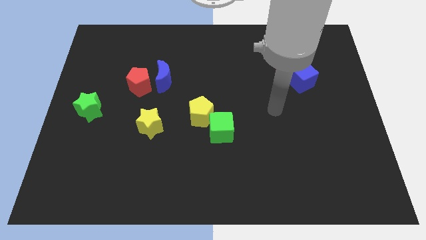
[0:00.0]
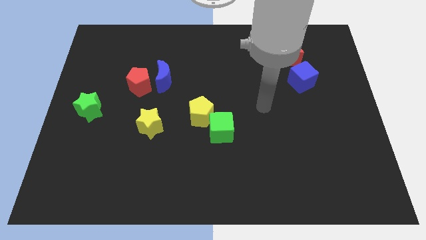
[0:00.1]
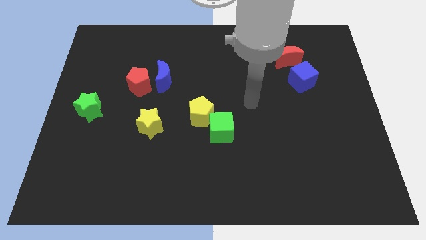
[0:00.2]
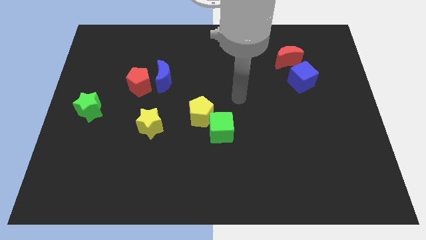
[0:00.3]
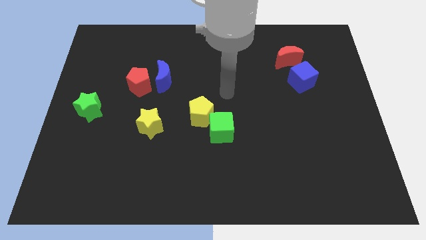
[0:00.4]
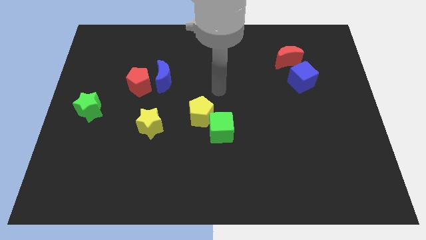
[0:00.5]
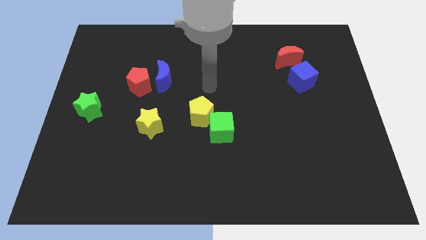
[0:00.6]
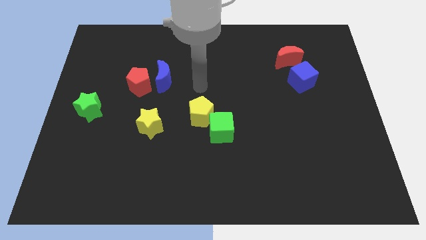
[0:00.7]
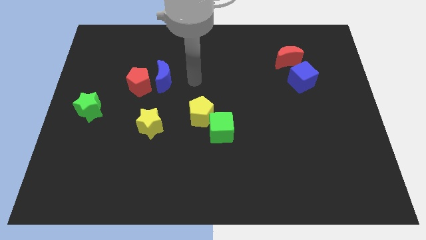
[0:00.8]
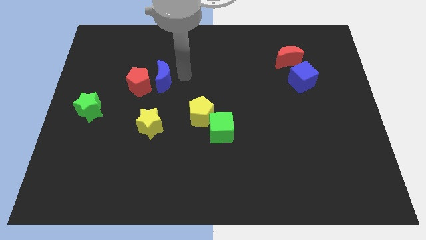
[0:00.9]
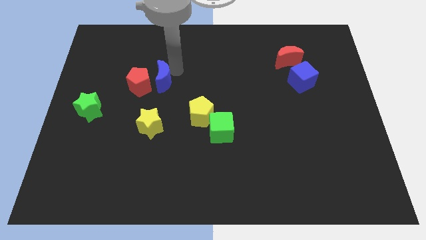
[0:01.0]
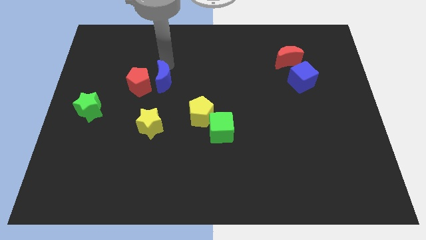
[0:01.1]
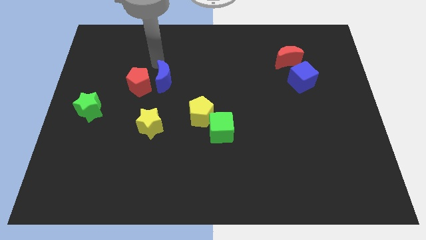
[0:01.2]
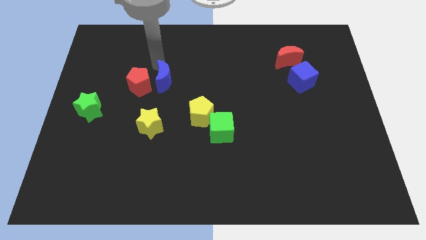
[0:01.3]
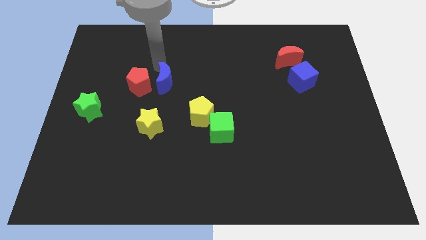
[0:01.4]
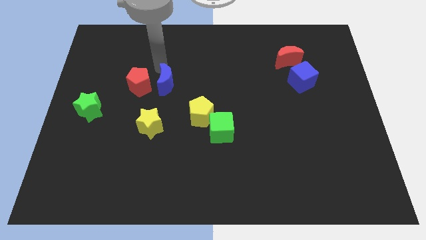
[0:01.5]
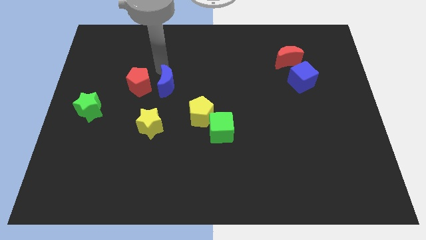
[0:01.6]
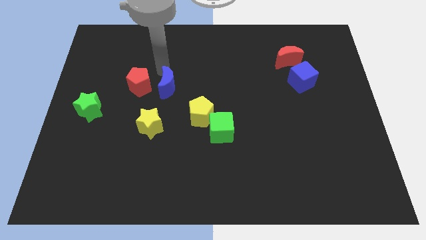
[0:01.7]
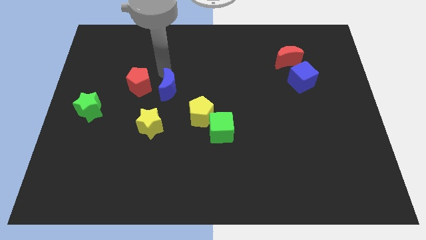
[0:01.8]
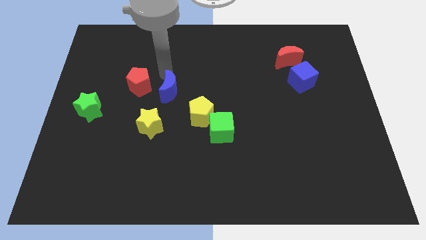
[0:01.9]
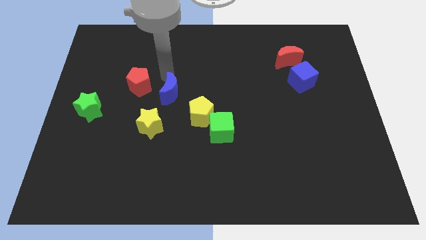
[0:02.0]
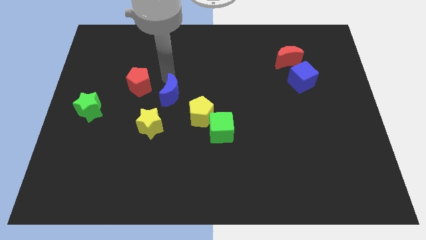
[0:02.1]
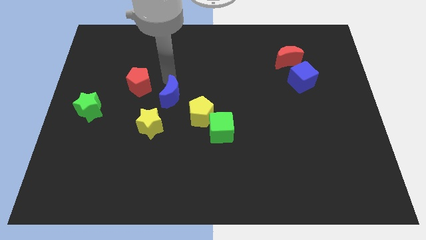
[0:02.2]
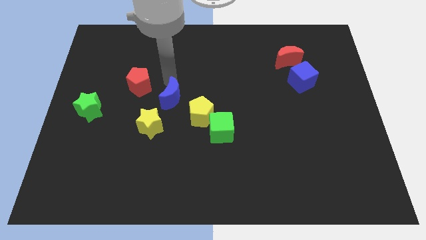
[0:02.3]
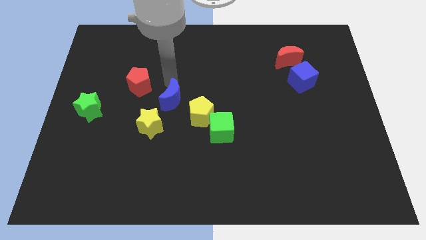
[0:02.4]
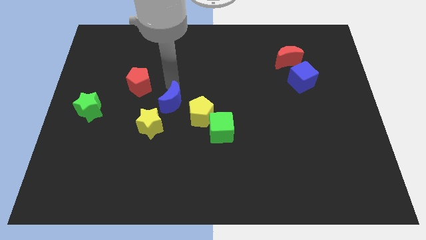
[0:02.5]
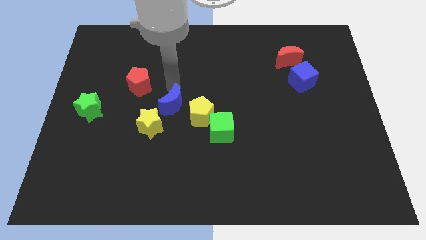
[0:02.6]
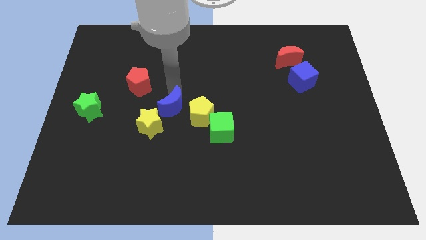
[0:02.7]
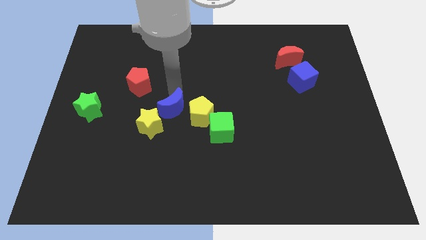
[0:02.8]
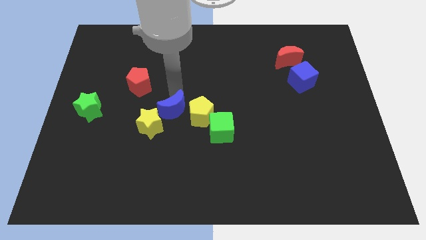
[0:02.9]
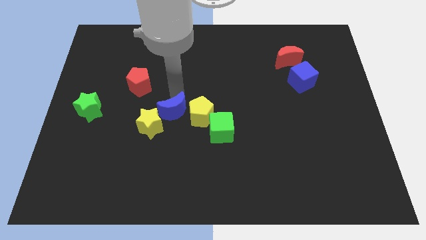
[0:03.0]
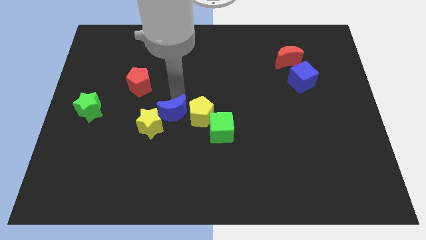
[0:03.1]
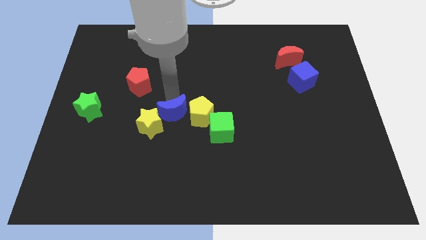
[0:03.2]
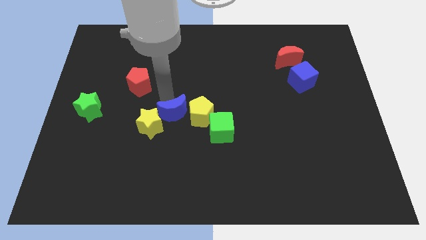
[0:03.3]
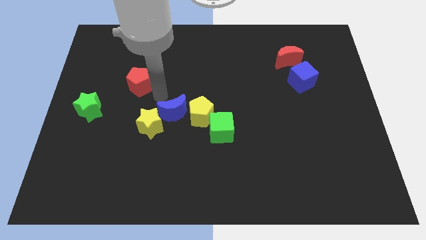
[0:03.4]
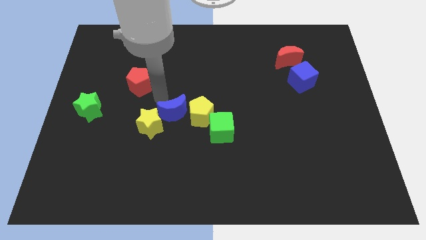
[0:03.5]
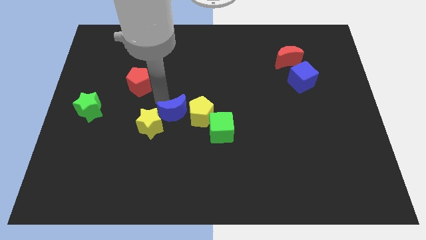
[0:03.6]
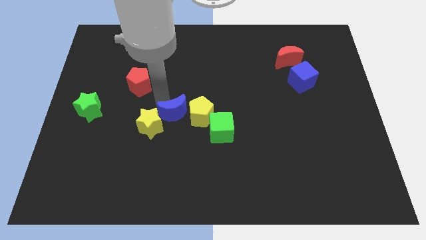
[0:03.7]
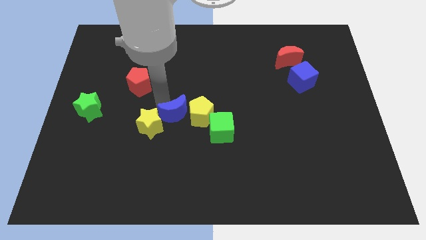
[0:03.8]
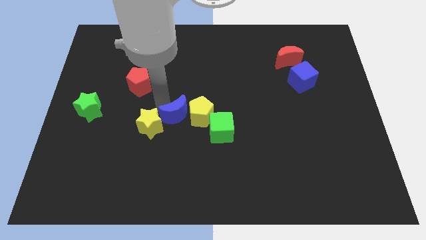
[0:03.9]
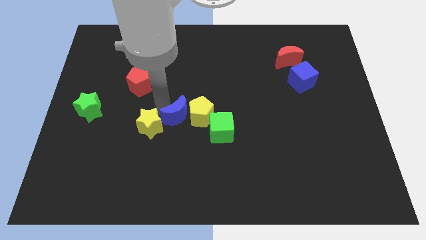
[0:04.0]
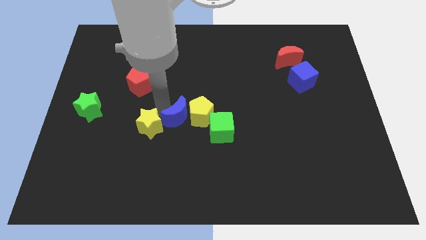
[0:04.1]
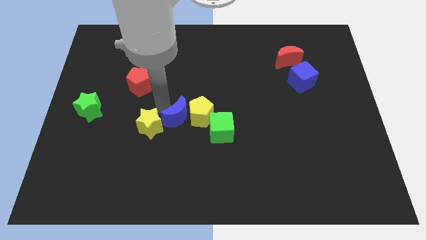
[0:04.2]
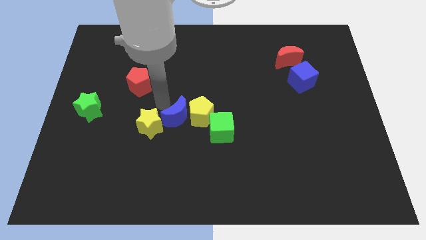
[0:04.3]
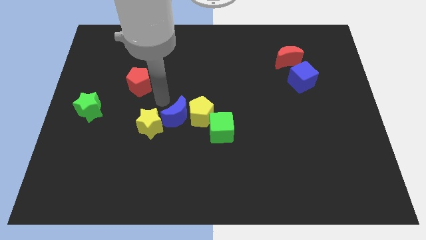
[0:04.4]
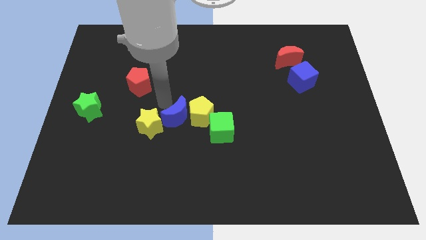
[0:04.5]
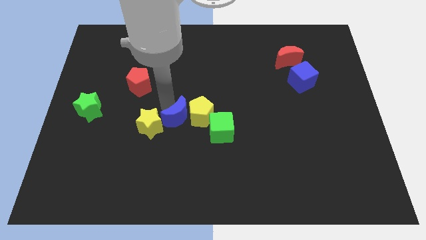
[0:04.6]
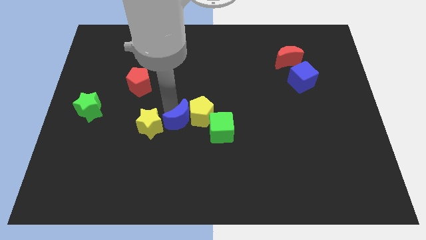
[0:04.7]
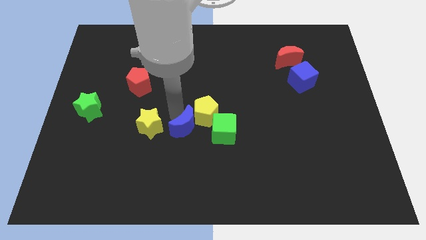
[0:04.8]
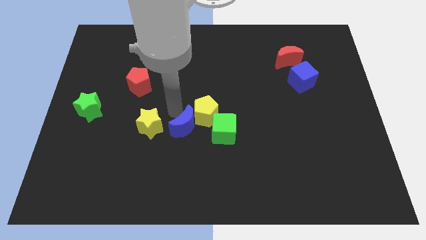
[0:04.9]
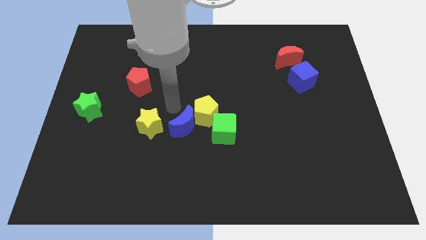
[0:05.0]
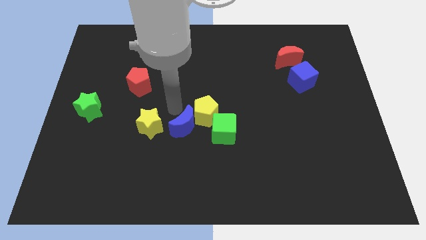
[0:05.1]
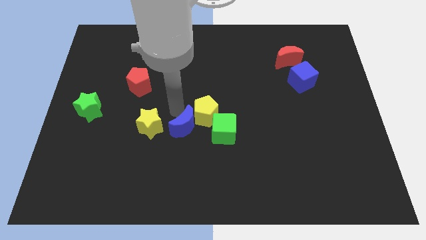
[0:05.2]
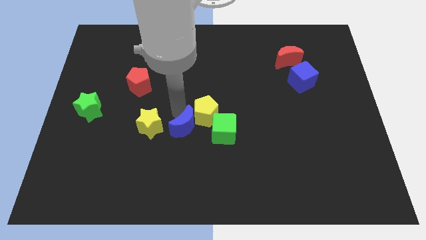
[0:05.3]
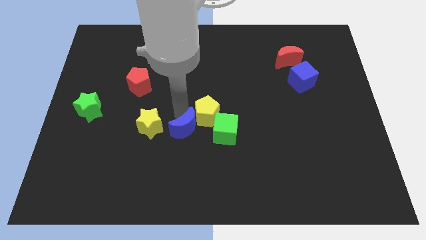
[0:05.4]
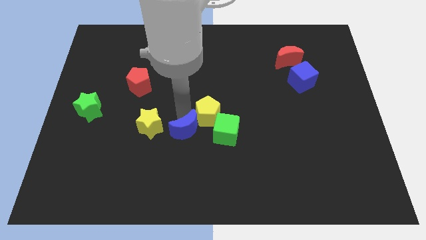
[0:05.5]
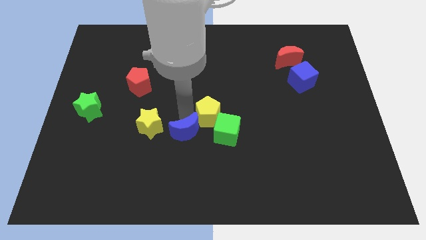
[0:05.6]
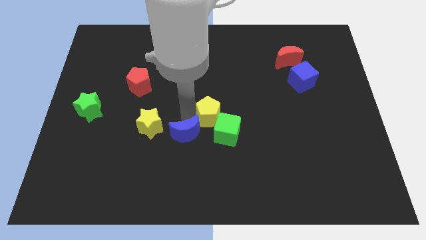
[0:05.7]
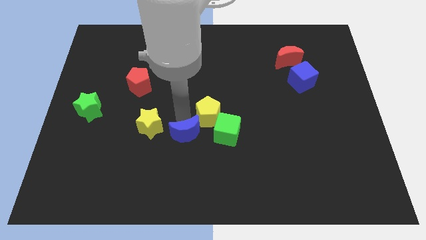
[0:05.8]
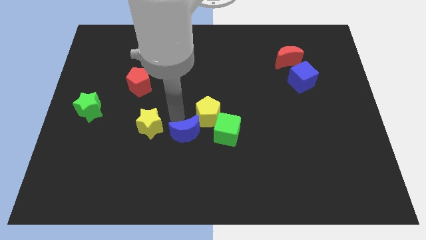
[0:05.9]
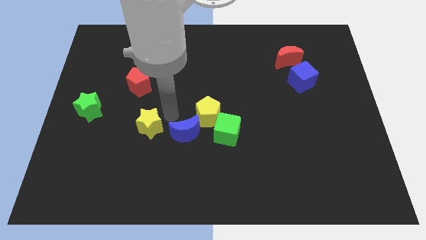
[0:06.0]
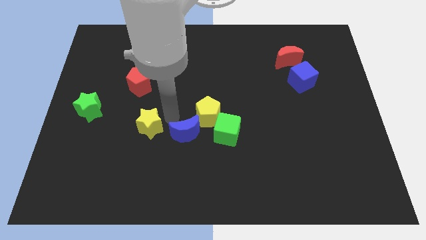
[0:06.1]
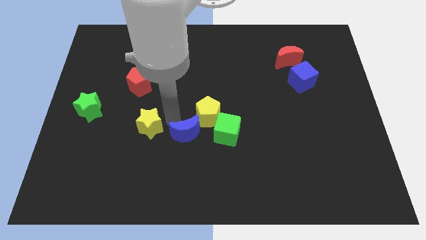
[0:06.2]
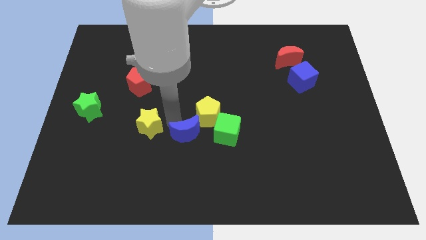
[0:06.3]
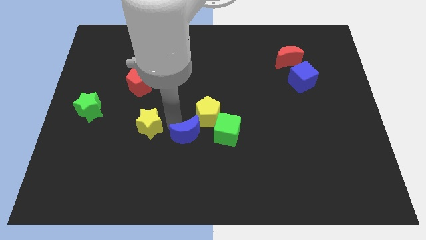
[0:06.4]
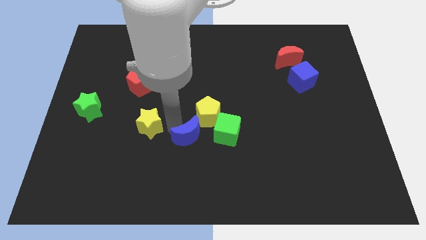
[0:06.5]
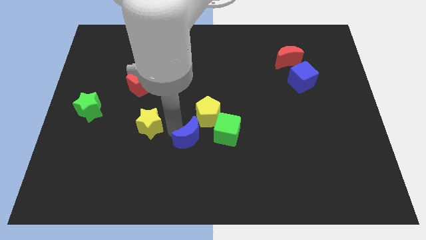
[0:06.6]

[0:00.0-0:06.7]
slide the blue moon to the bottom left of the green cube
